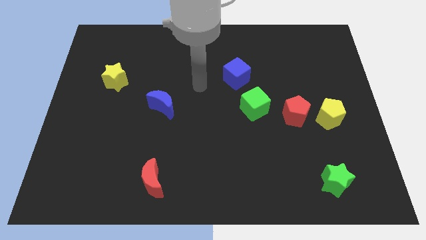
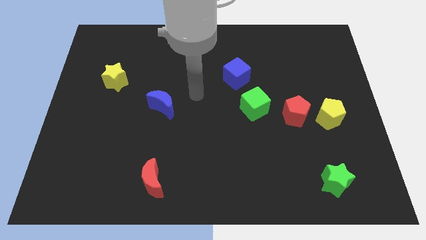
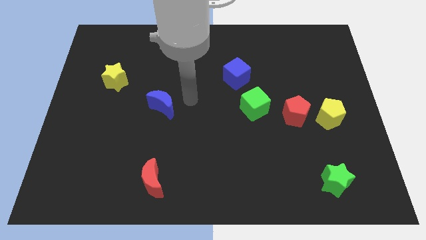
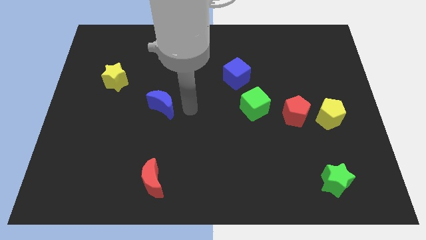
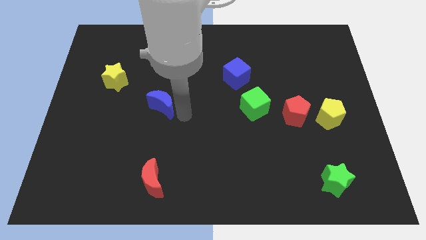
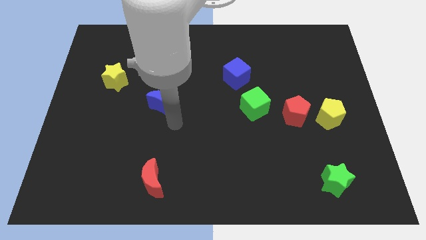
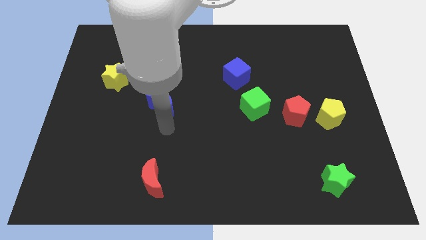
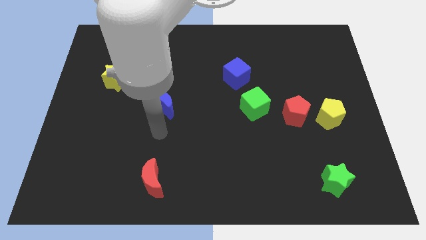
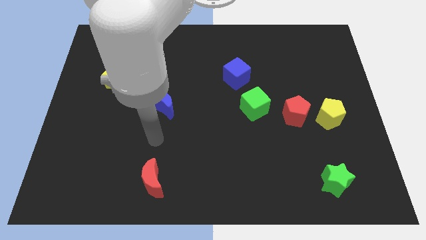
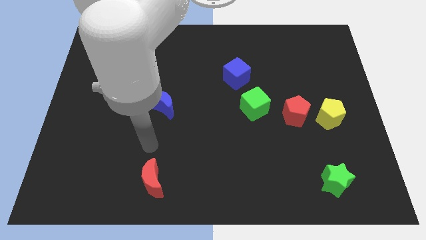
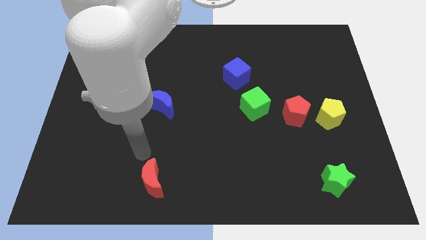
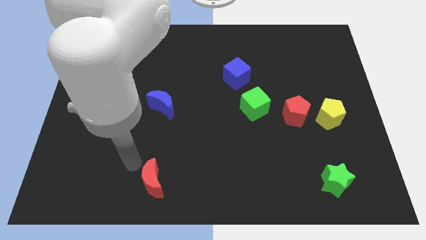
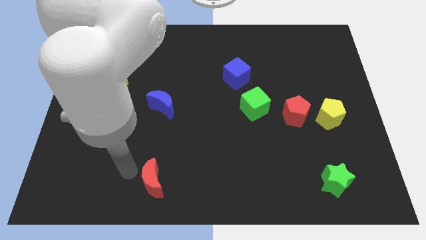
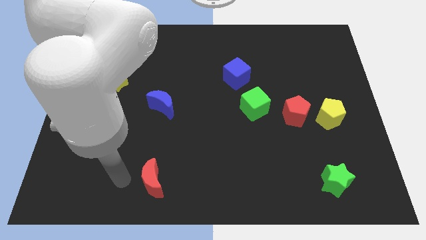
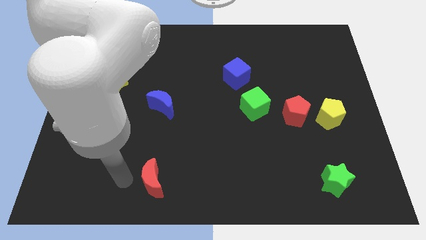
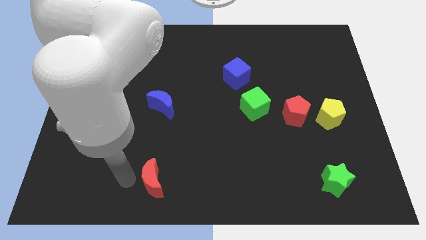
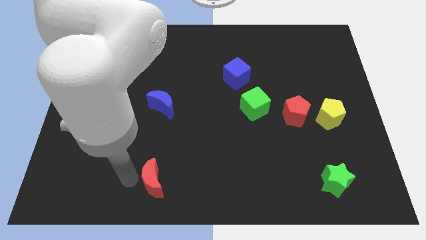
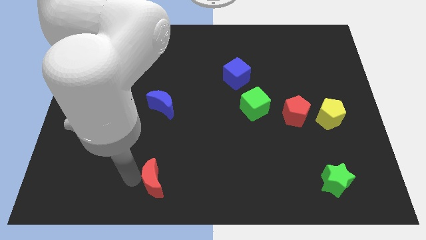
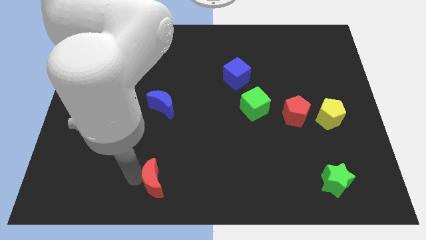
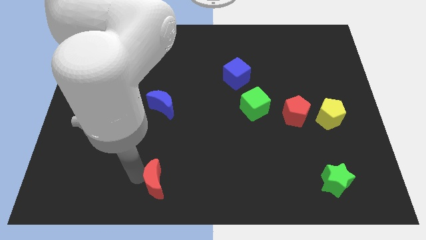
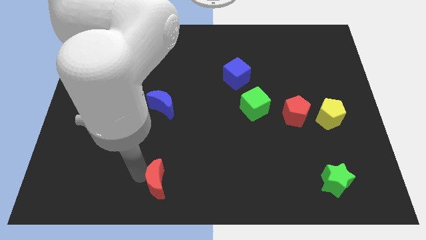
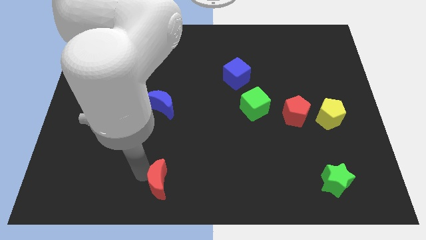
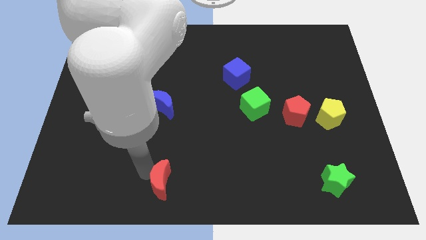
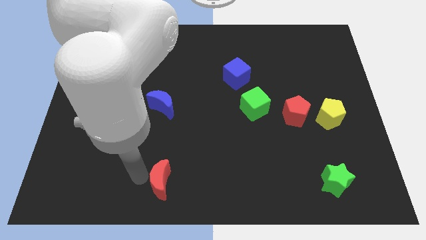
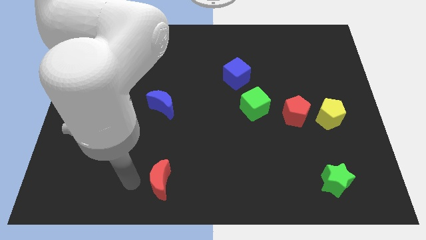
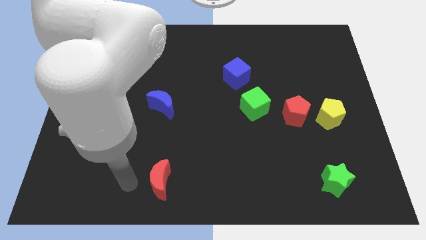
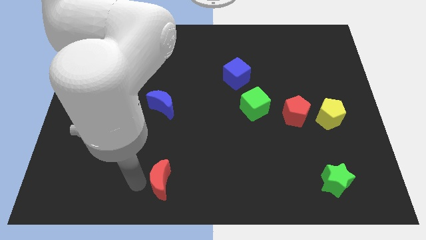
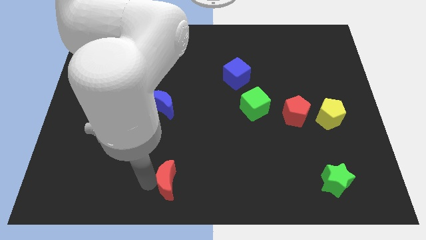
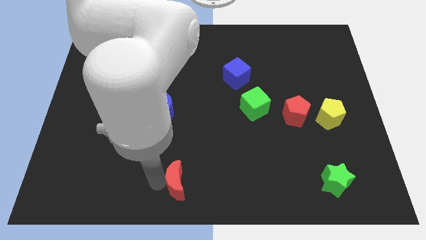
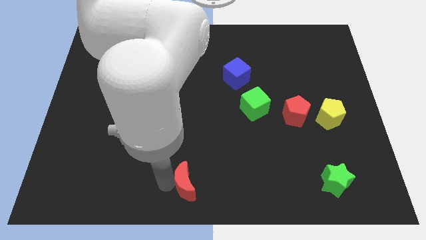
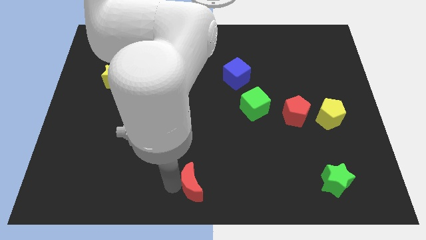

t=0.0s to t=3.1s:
slightly move the red moon right

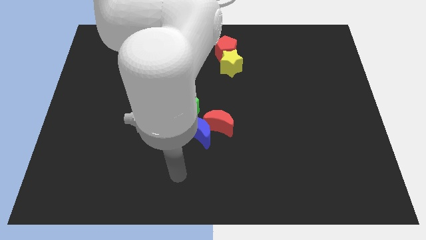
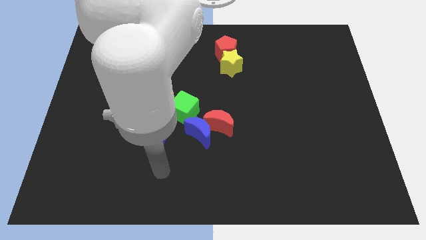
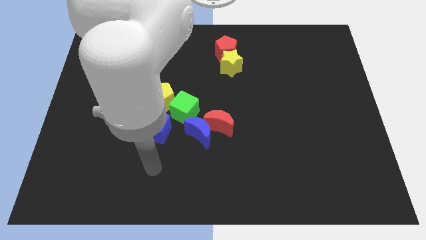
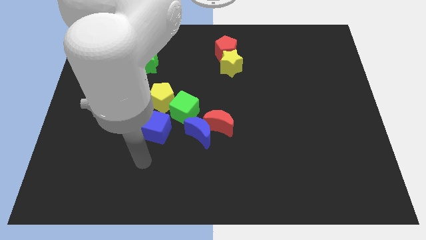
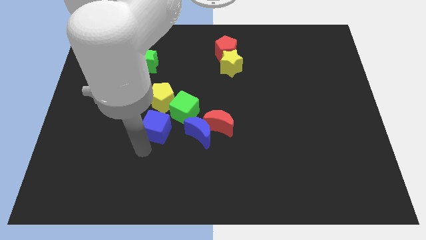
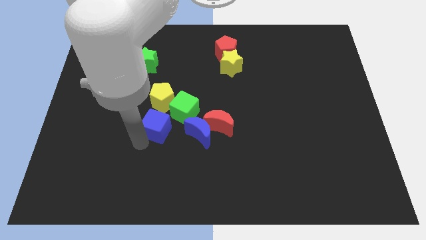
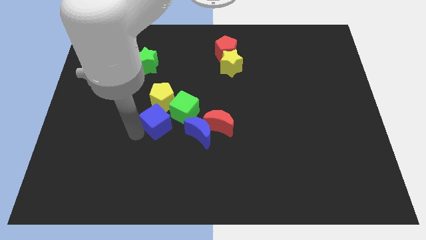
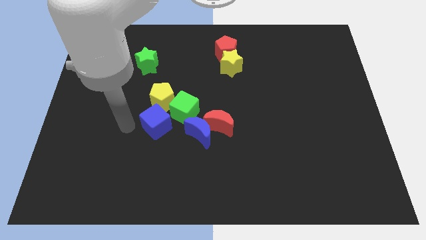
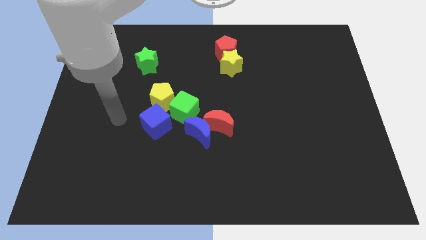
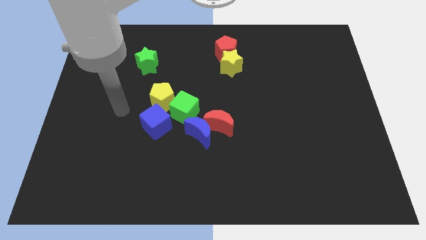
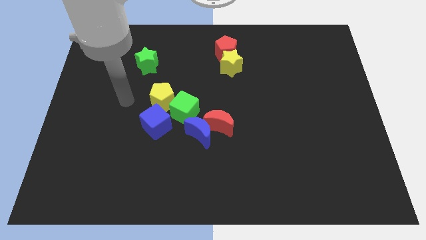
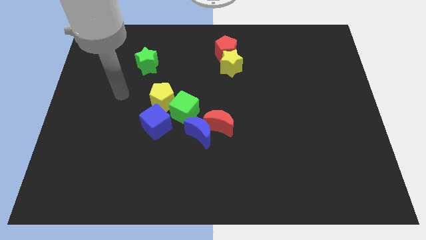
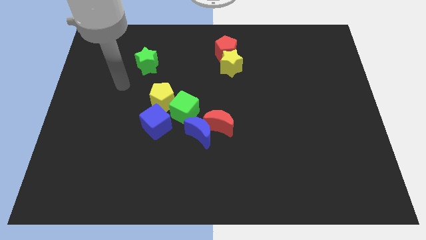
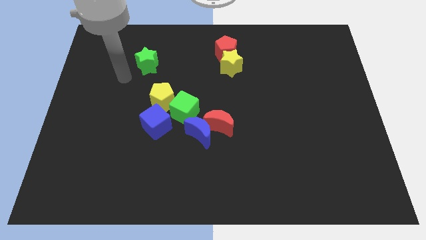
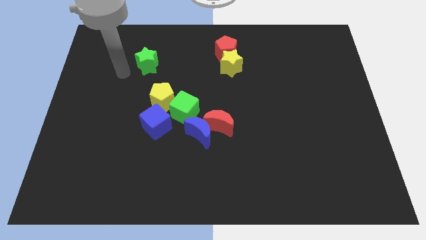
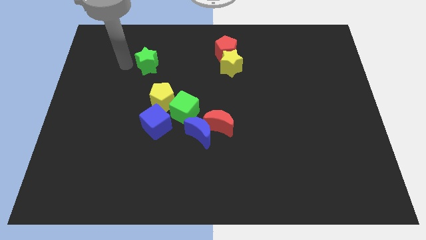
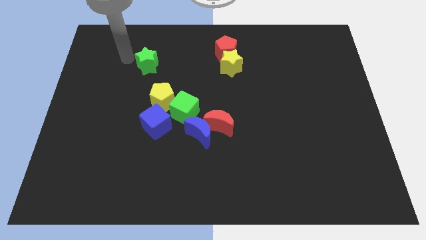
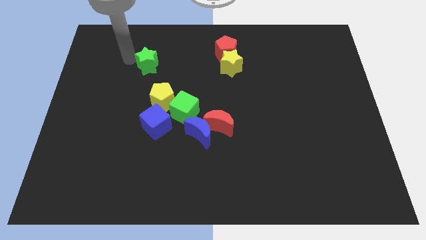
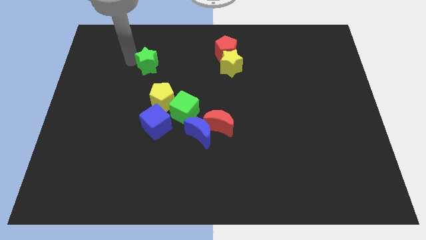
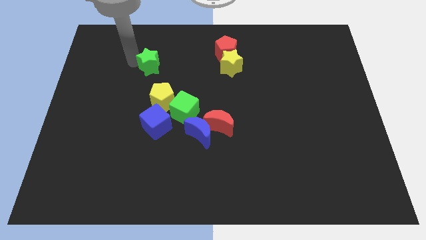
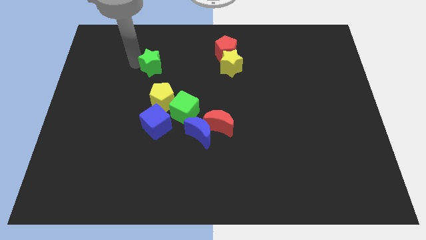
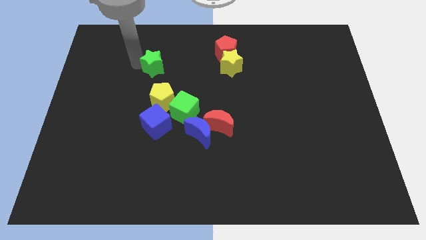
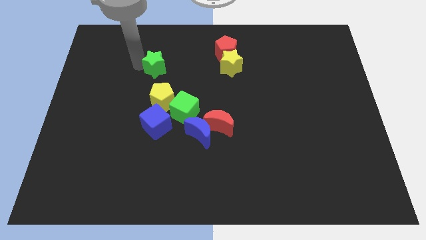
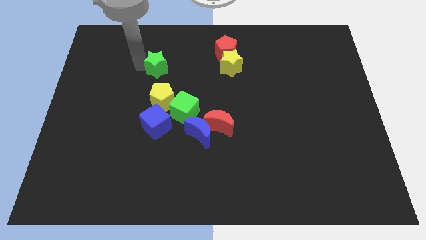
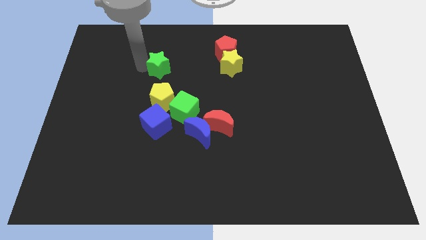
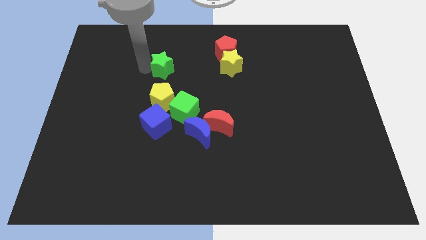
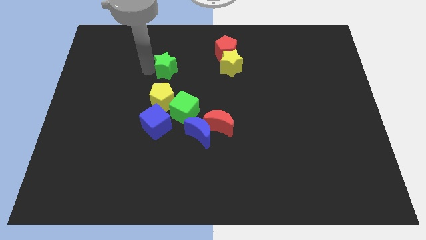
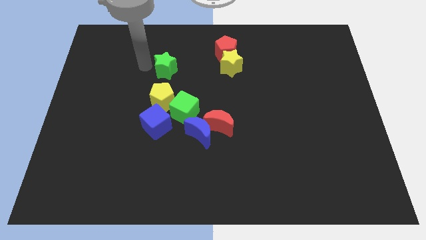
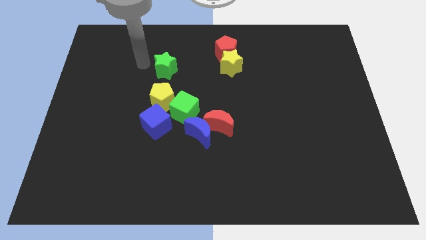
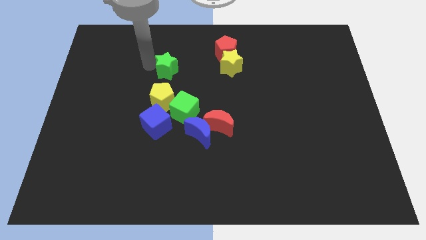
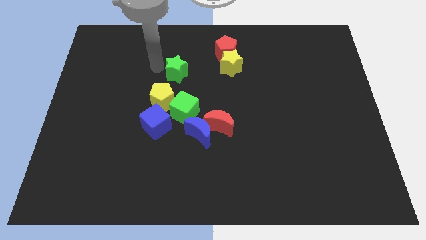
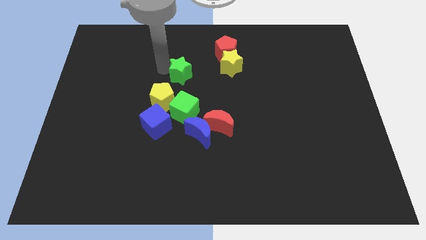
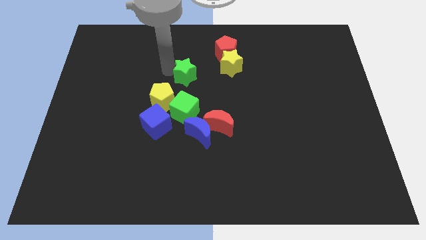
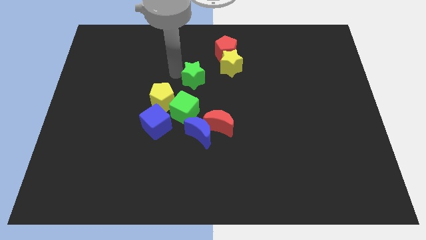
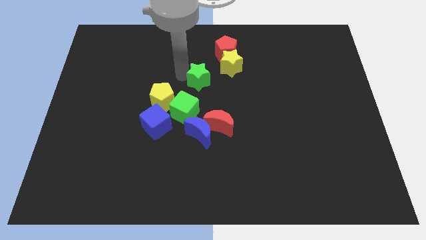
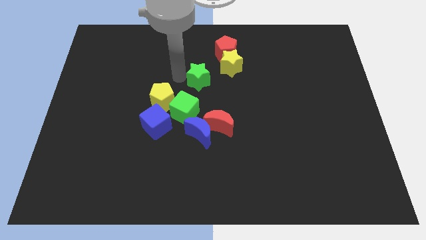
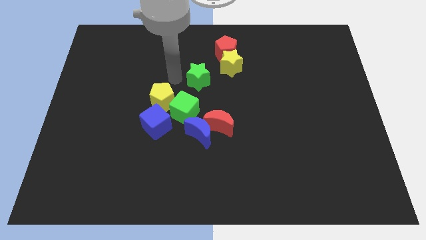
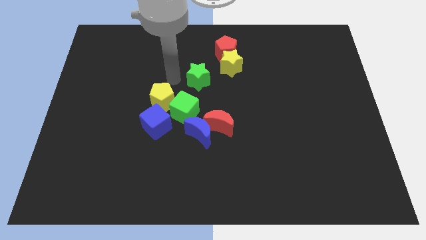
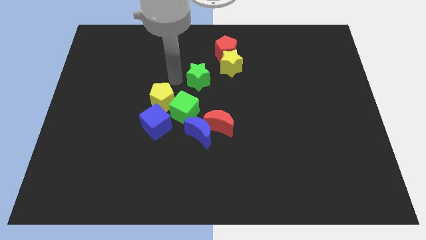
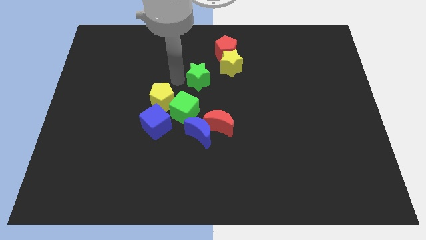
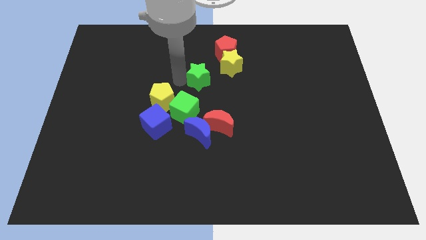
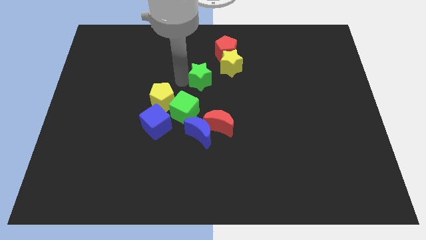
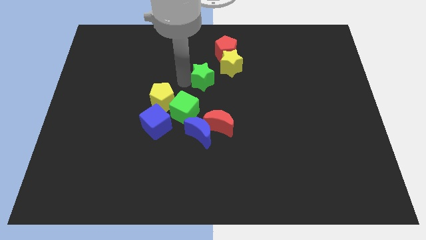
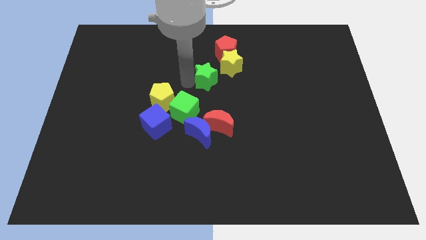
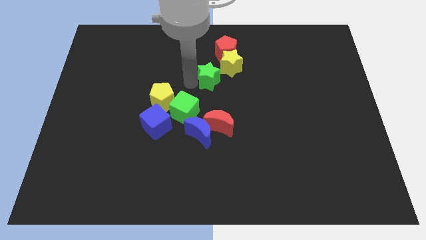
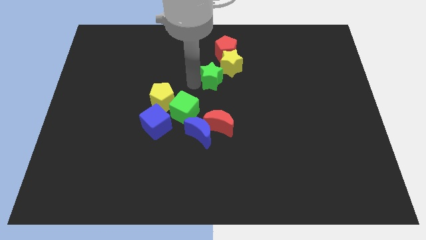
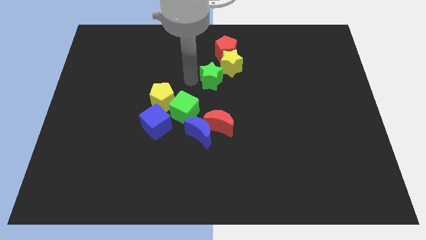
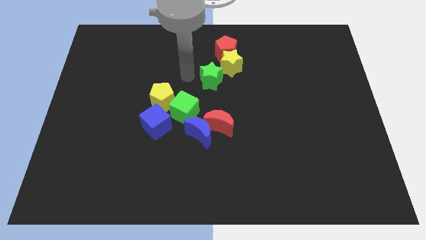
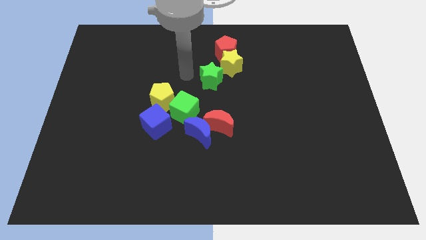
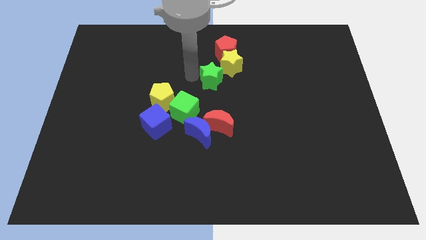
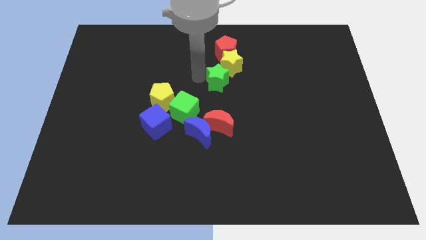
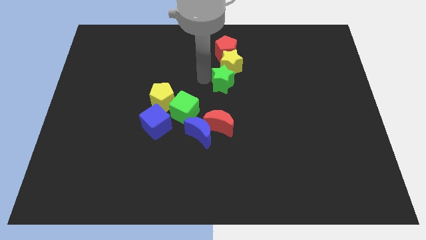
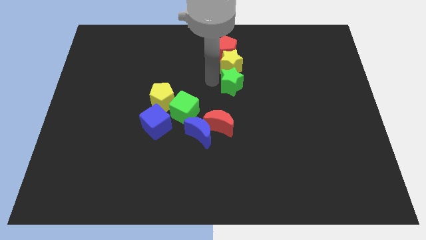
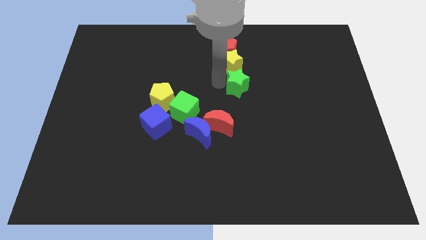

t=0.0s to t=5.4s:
push the green star to the right
